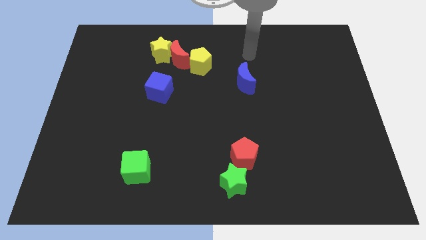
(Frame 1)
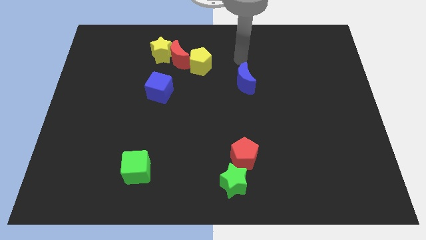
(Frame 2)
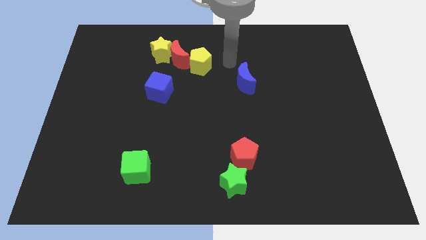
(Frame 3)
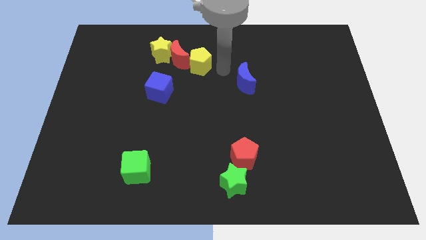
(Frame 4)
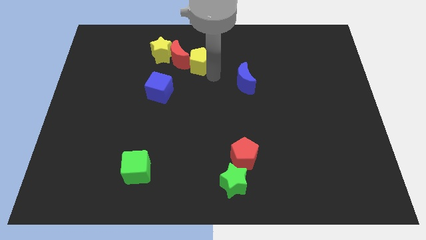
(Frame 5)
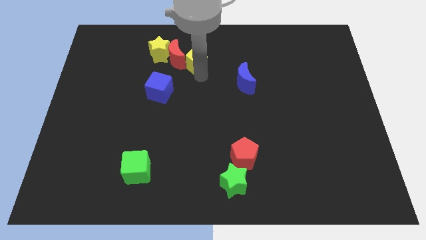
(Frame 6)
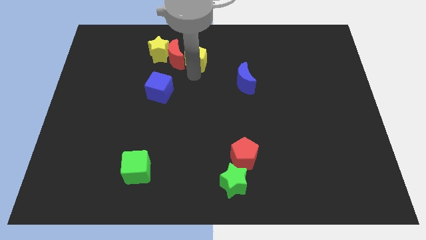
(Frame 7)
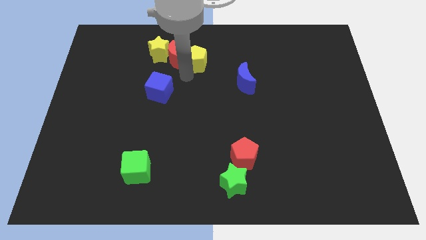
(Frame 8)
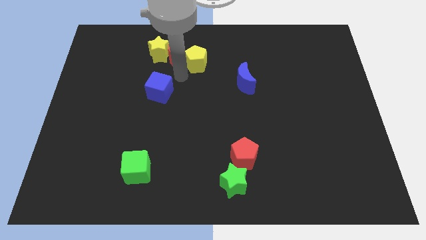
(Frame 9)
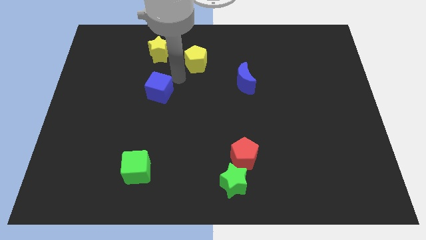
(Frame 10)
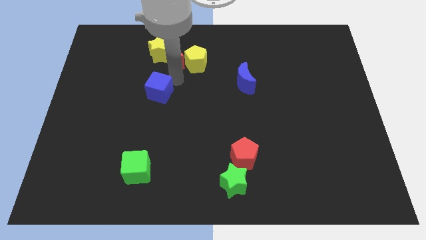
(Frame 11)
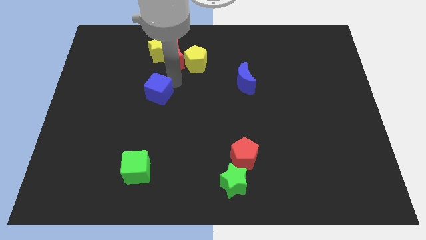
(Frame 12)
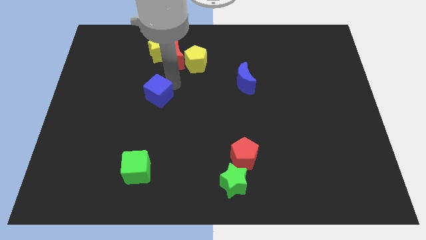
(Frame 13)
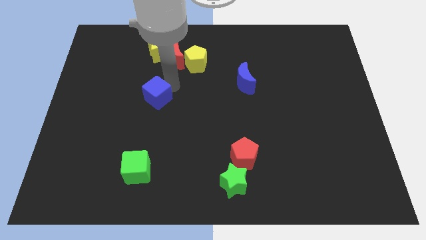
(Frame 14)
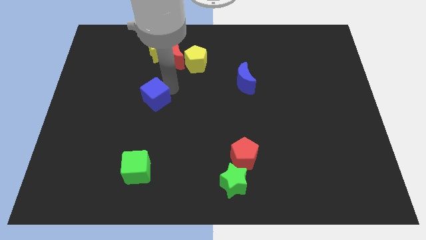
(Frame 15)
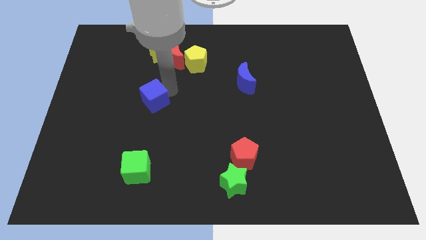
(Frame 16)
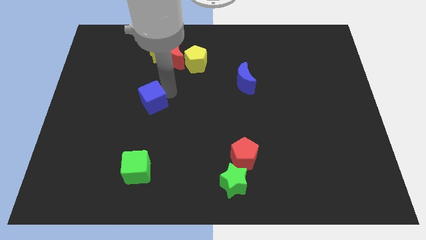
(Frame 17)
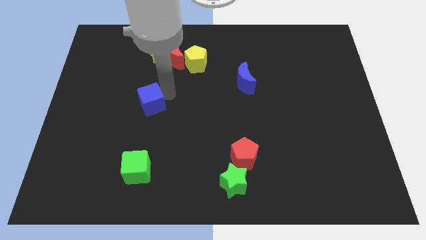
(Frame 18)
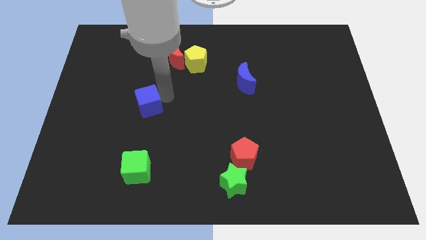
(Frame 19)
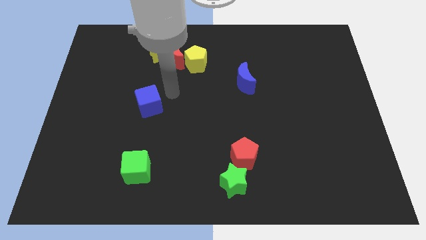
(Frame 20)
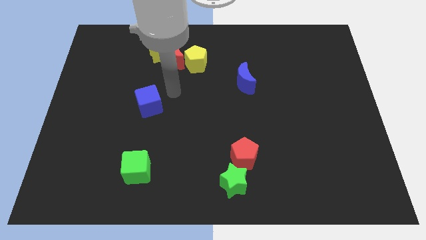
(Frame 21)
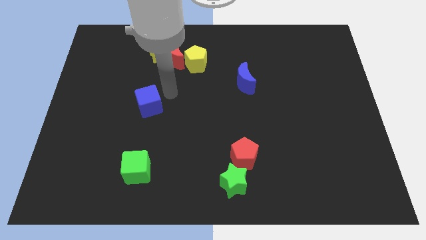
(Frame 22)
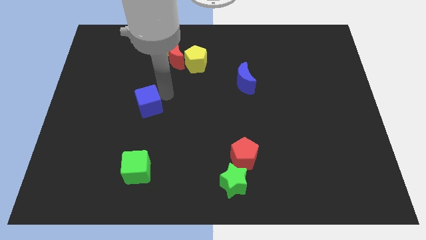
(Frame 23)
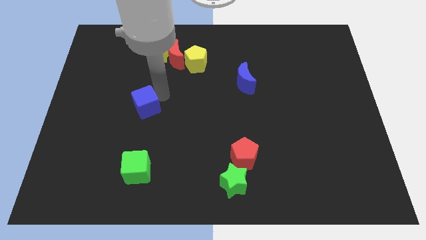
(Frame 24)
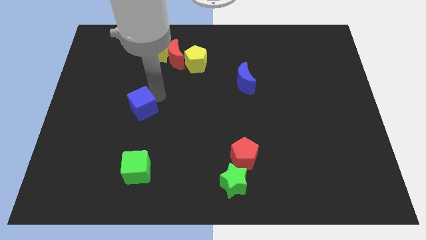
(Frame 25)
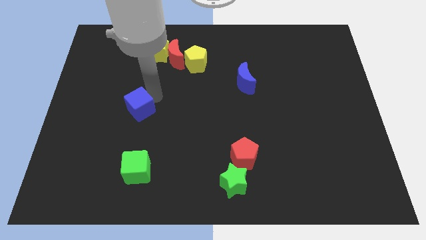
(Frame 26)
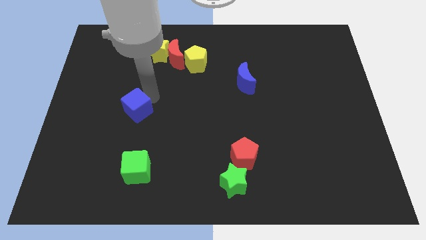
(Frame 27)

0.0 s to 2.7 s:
slide the blue cube down and to the left diagonally a little bit

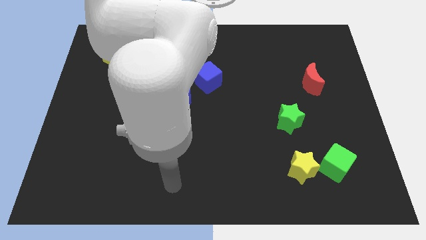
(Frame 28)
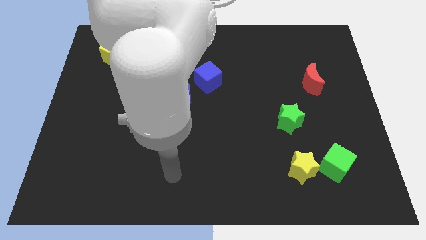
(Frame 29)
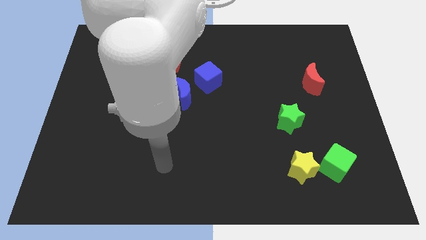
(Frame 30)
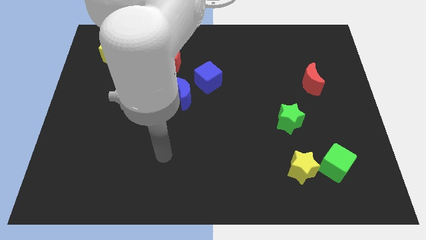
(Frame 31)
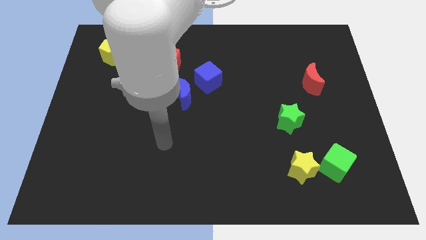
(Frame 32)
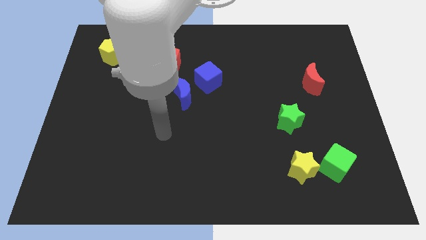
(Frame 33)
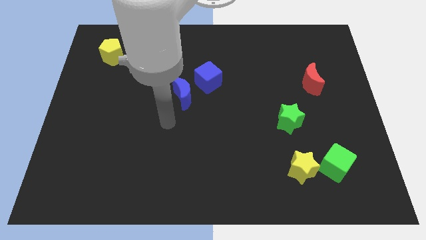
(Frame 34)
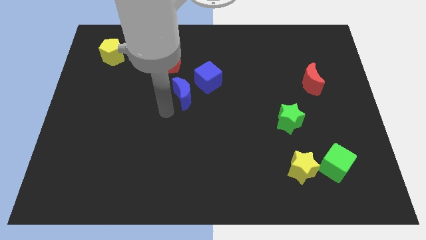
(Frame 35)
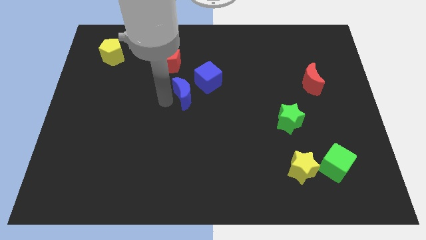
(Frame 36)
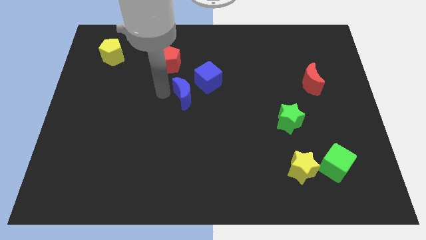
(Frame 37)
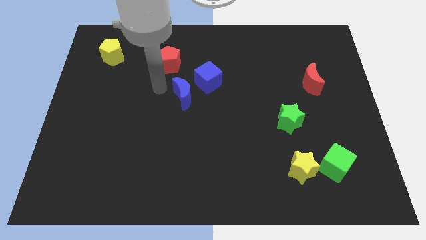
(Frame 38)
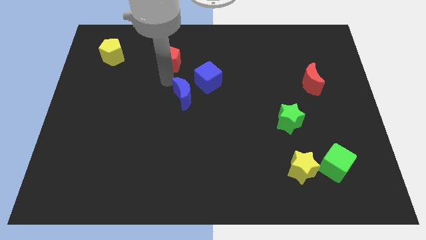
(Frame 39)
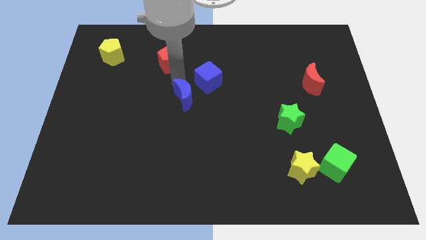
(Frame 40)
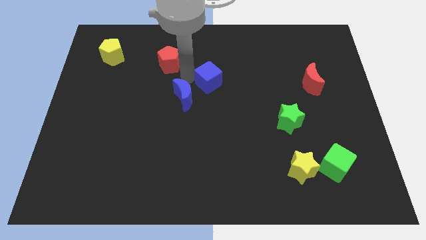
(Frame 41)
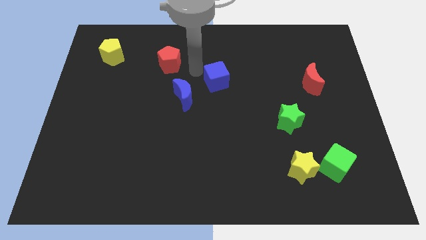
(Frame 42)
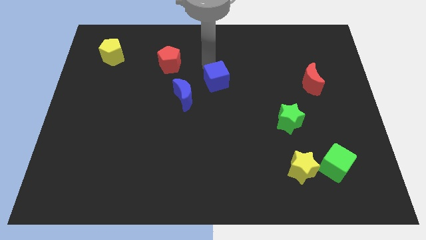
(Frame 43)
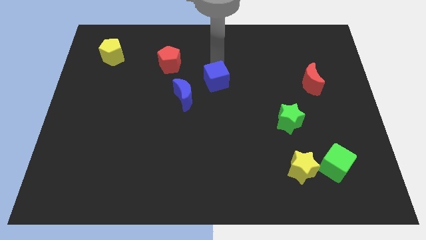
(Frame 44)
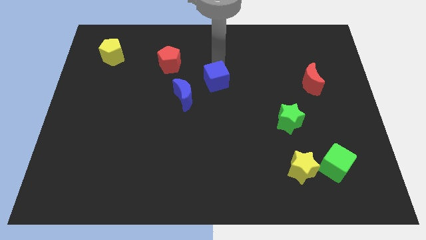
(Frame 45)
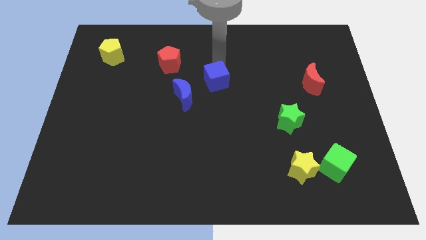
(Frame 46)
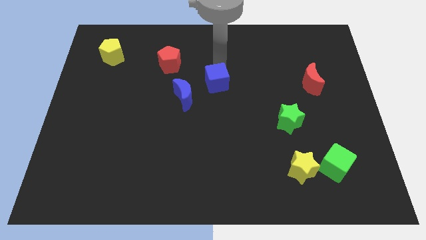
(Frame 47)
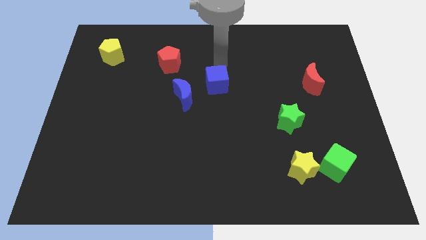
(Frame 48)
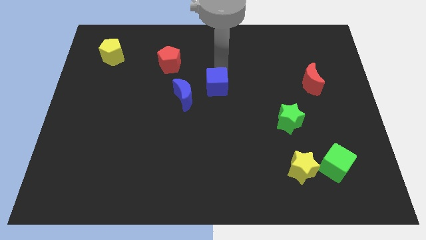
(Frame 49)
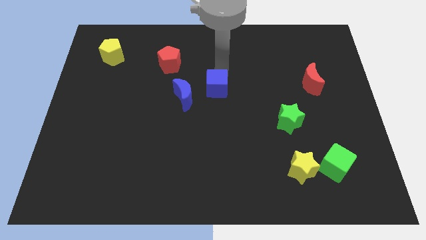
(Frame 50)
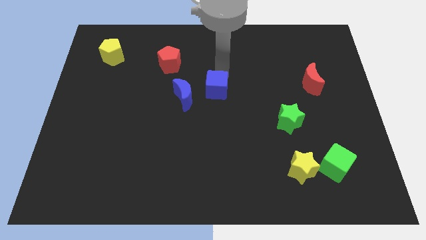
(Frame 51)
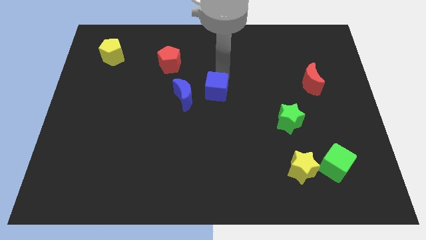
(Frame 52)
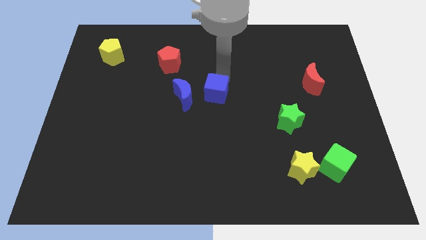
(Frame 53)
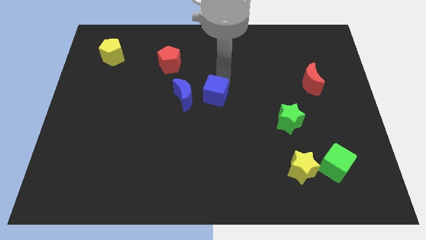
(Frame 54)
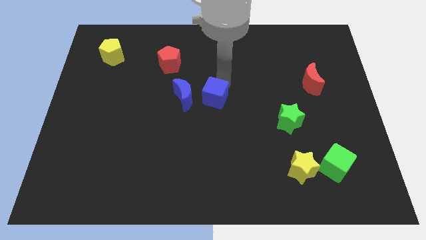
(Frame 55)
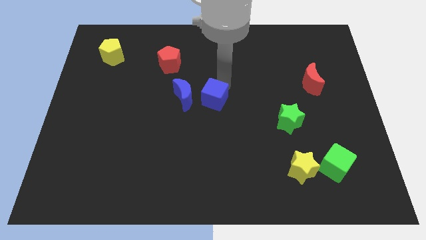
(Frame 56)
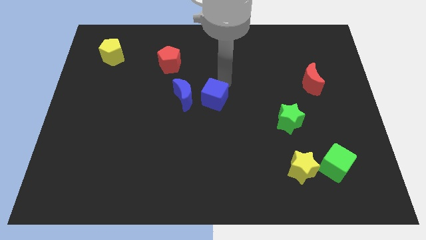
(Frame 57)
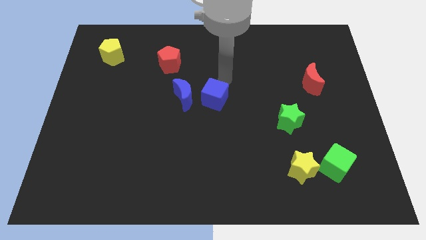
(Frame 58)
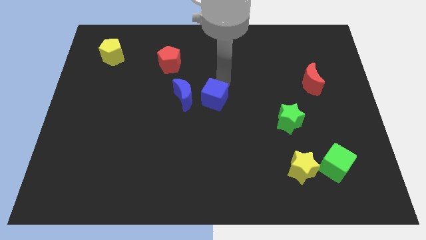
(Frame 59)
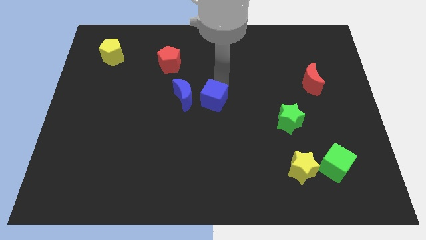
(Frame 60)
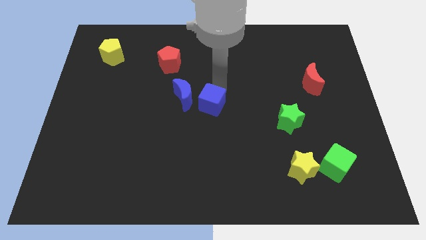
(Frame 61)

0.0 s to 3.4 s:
push the blue cube down a bit

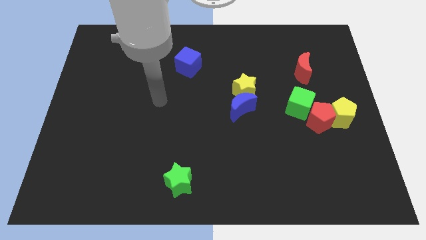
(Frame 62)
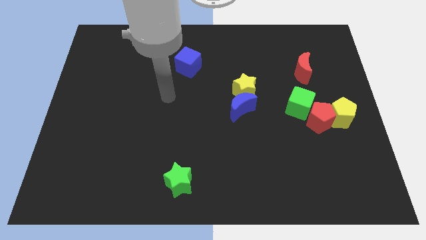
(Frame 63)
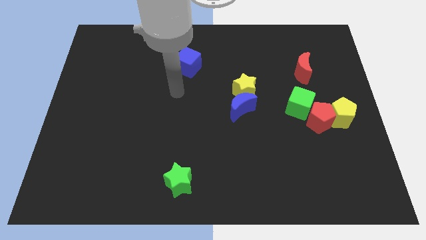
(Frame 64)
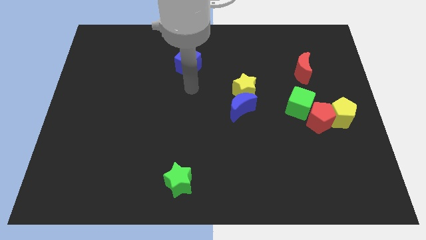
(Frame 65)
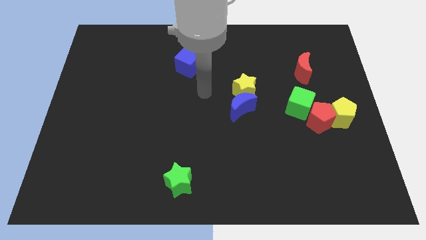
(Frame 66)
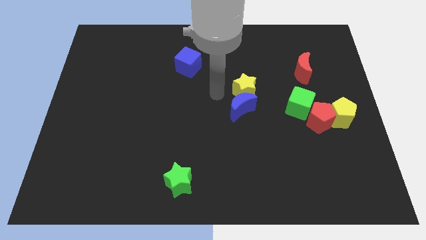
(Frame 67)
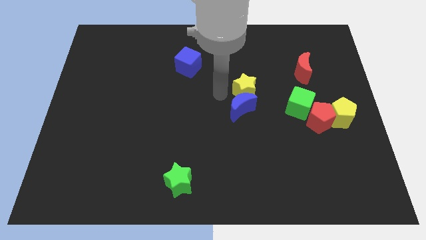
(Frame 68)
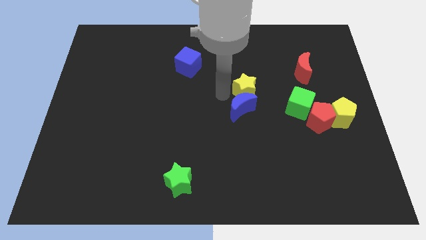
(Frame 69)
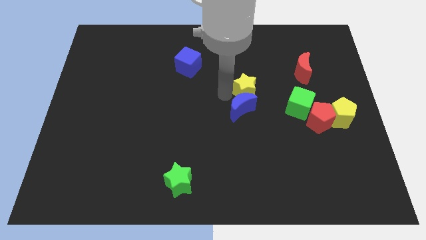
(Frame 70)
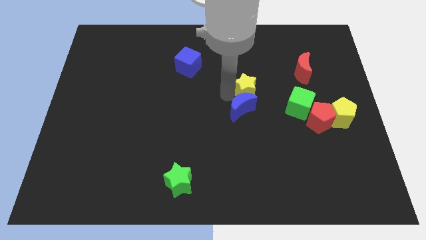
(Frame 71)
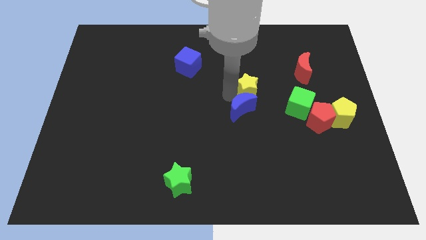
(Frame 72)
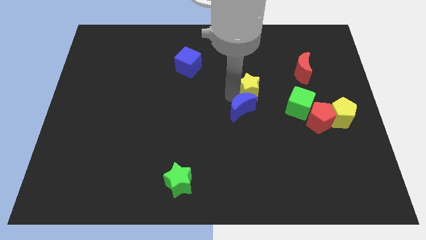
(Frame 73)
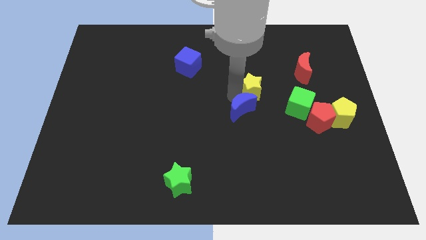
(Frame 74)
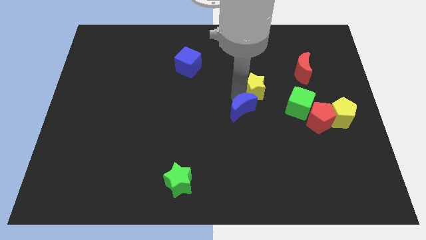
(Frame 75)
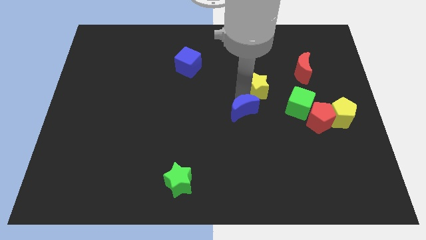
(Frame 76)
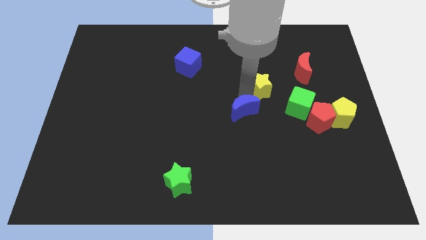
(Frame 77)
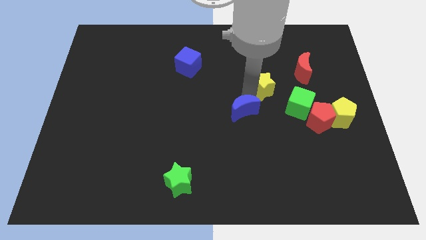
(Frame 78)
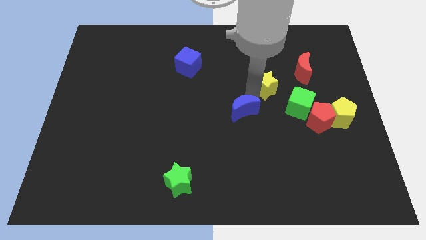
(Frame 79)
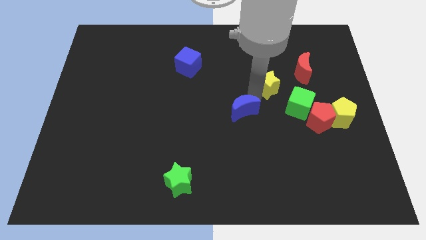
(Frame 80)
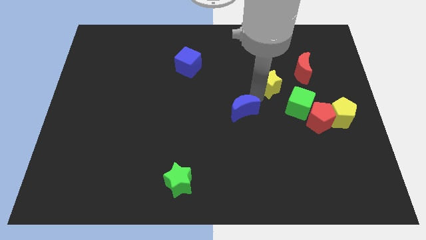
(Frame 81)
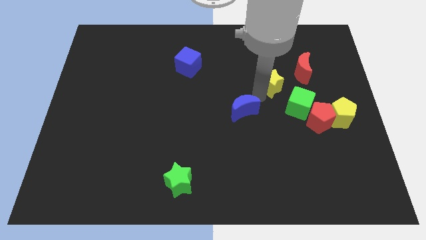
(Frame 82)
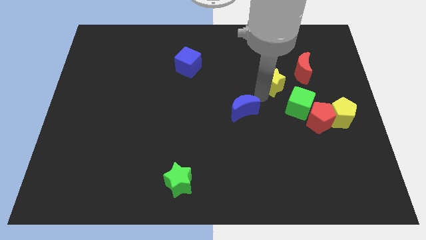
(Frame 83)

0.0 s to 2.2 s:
slide the yellow star to the right a little
